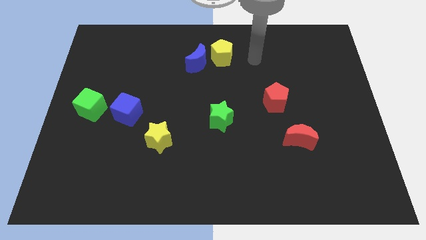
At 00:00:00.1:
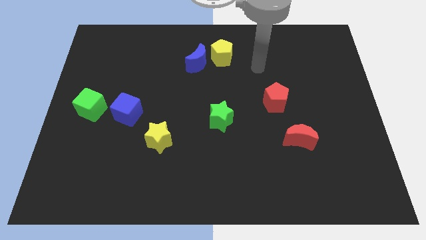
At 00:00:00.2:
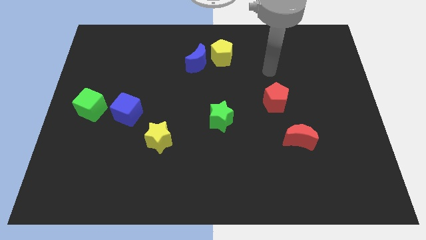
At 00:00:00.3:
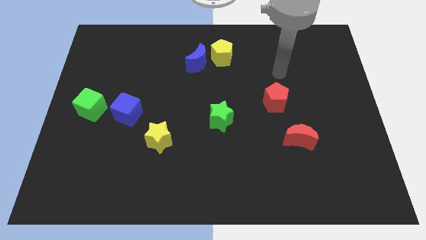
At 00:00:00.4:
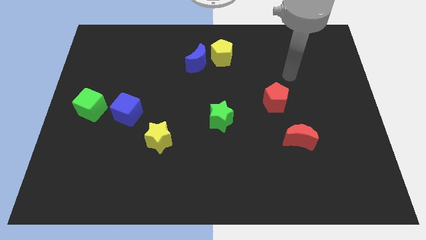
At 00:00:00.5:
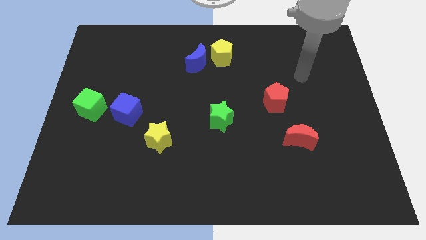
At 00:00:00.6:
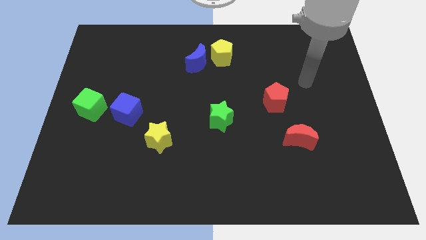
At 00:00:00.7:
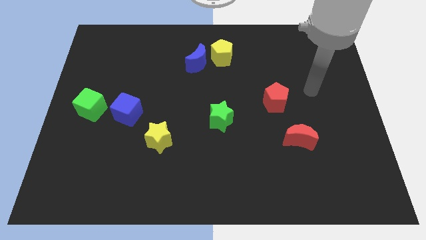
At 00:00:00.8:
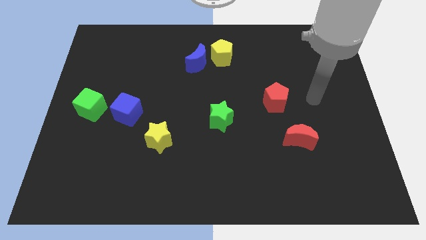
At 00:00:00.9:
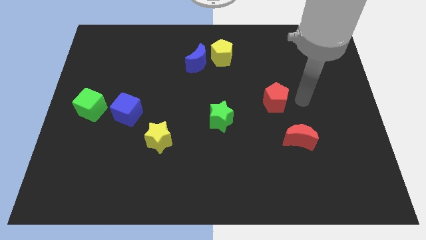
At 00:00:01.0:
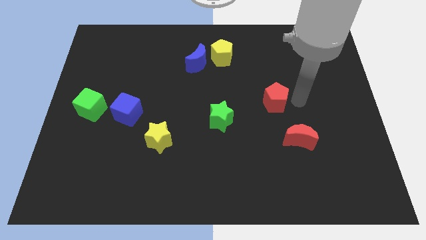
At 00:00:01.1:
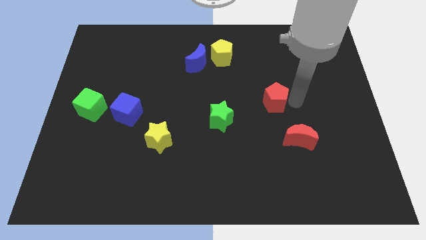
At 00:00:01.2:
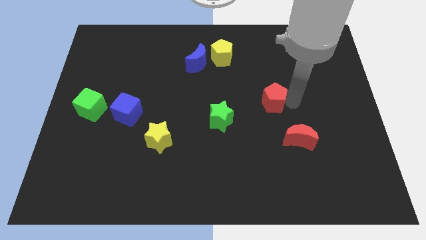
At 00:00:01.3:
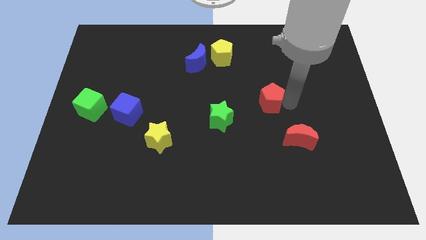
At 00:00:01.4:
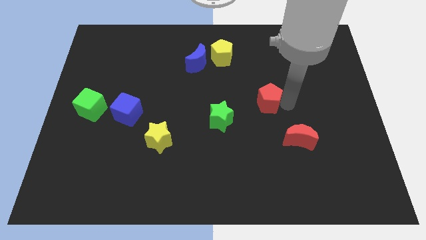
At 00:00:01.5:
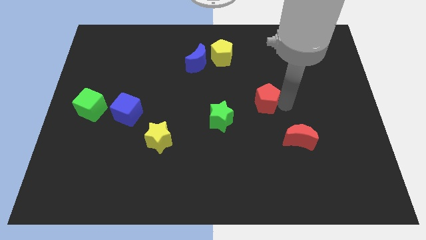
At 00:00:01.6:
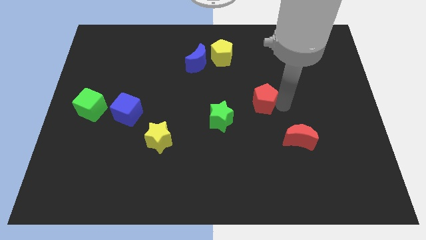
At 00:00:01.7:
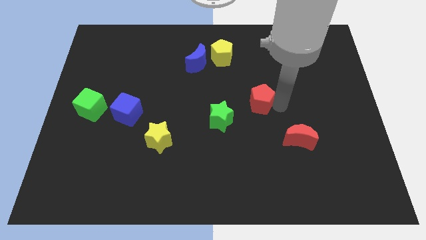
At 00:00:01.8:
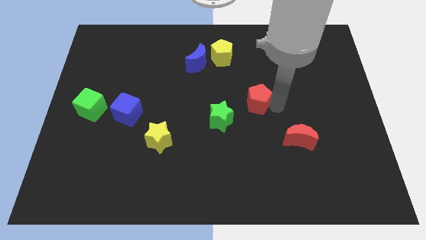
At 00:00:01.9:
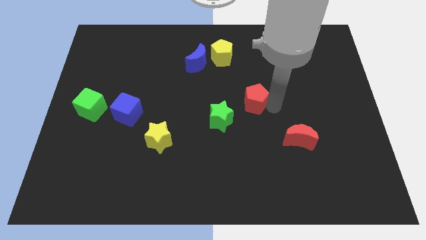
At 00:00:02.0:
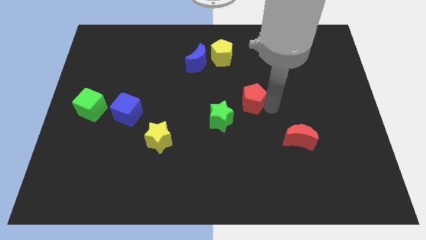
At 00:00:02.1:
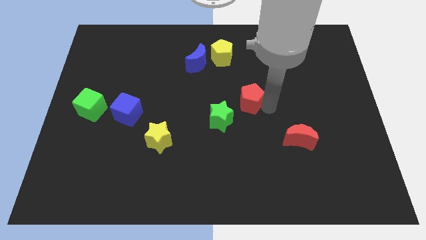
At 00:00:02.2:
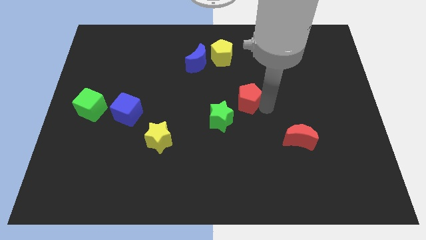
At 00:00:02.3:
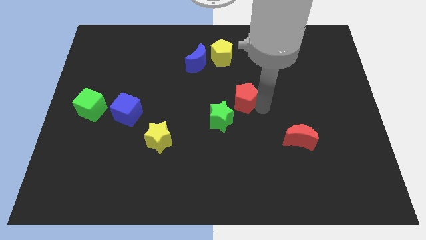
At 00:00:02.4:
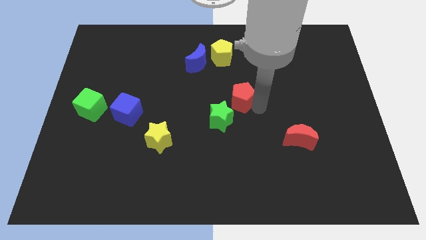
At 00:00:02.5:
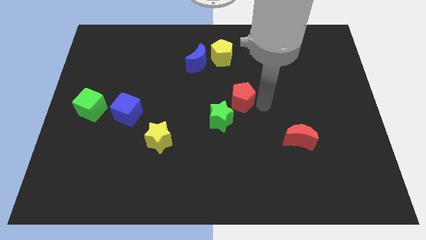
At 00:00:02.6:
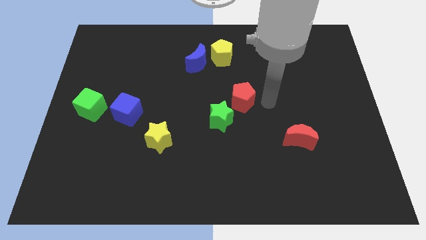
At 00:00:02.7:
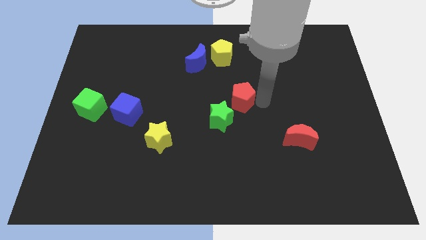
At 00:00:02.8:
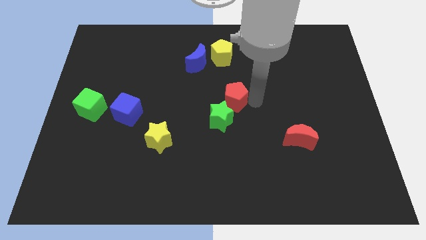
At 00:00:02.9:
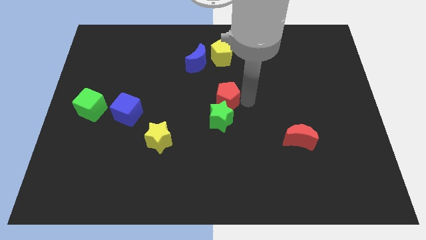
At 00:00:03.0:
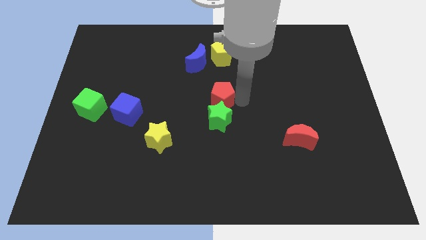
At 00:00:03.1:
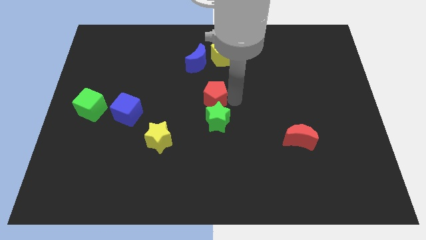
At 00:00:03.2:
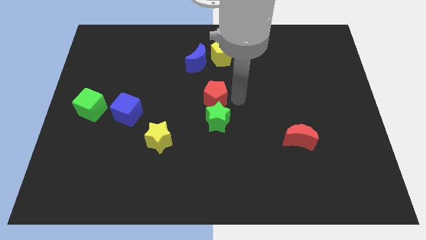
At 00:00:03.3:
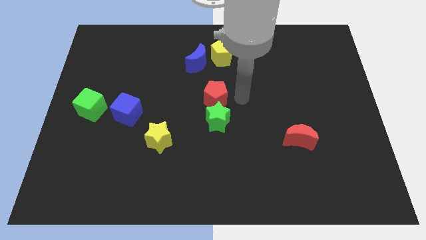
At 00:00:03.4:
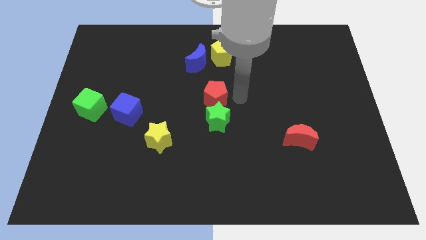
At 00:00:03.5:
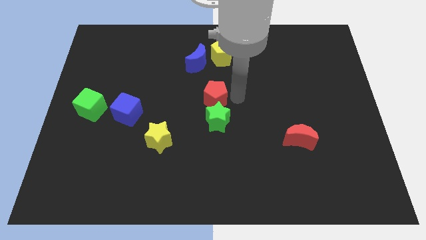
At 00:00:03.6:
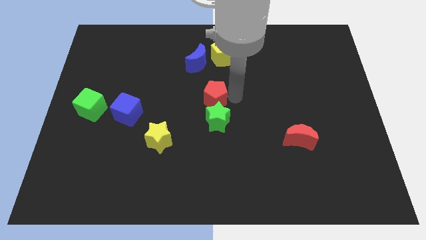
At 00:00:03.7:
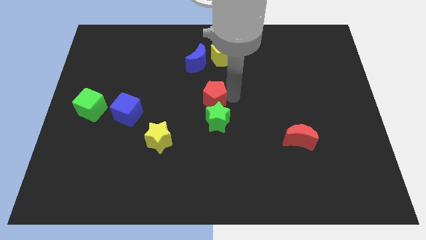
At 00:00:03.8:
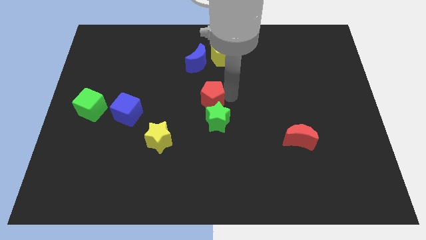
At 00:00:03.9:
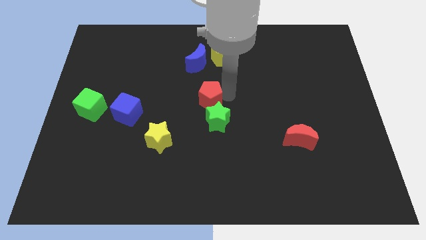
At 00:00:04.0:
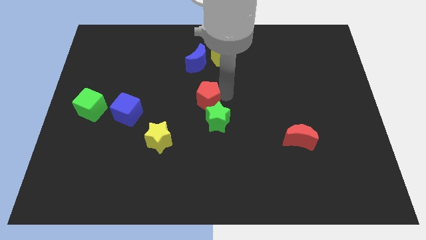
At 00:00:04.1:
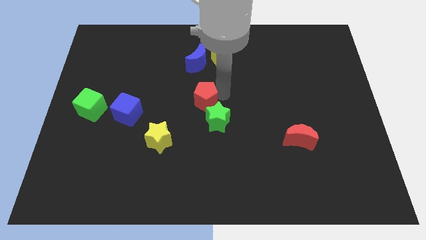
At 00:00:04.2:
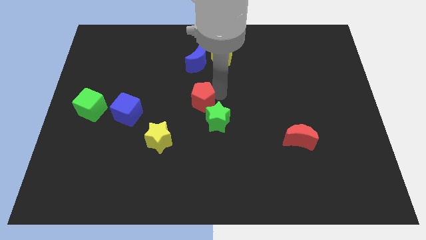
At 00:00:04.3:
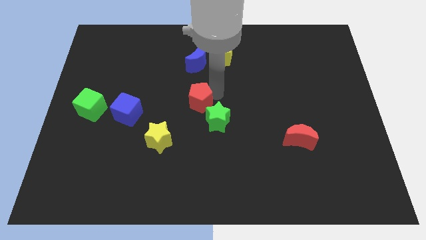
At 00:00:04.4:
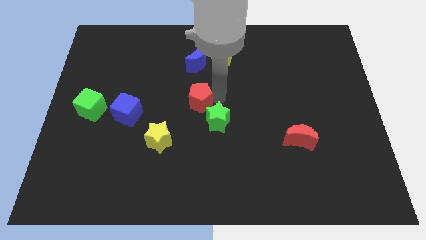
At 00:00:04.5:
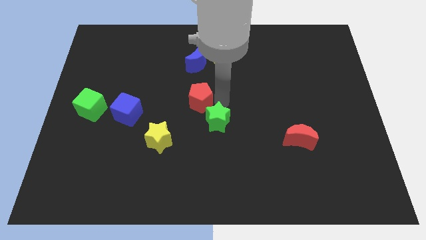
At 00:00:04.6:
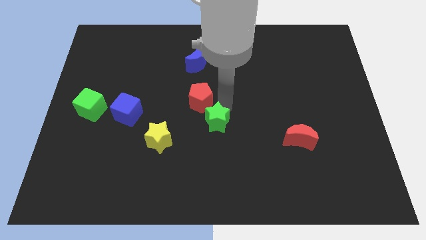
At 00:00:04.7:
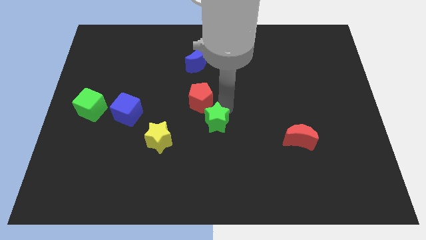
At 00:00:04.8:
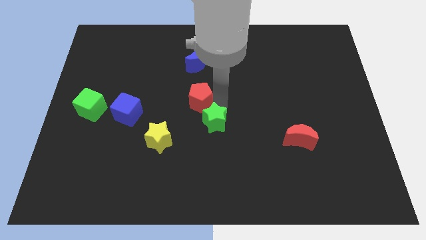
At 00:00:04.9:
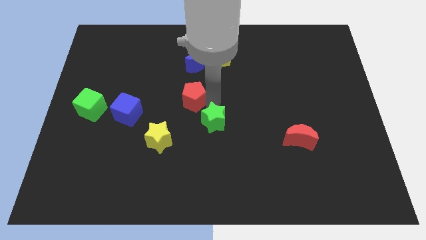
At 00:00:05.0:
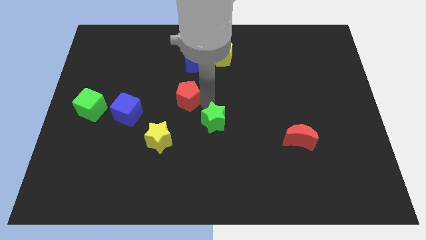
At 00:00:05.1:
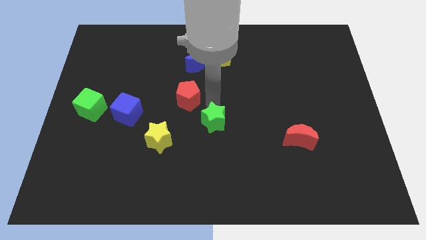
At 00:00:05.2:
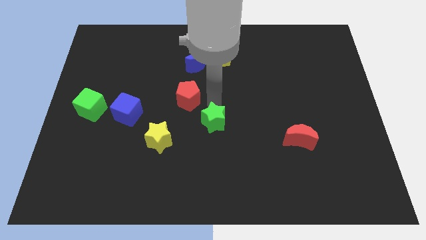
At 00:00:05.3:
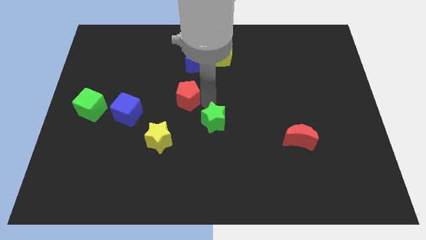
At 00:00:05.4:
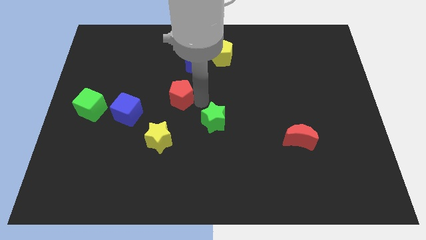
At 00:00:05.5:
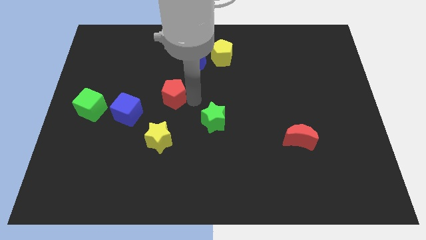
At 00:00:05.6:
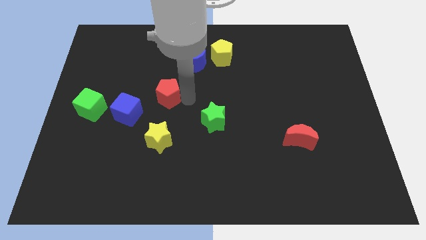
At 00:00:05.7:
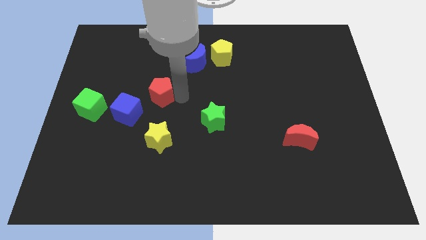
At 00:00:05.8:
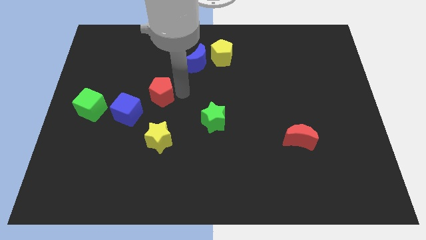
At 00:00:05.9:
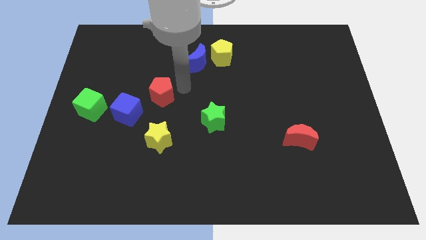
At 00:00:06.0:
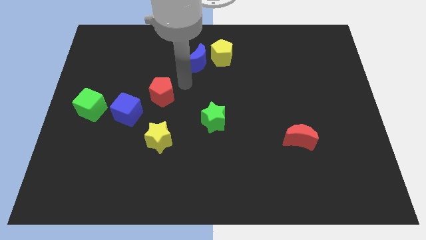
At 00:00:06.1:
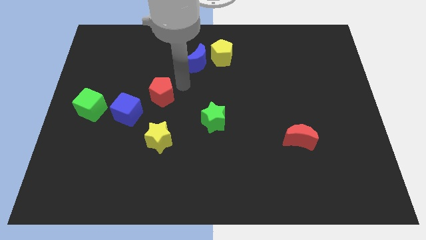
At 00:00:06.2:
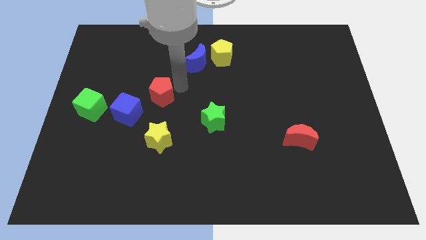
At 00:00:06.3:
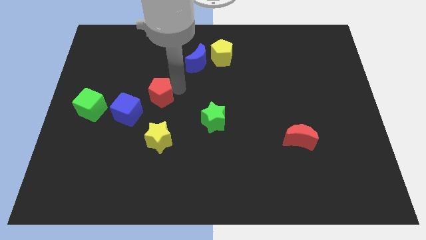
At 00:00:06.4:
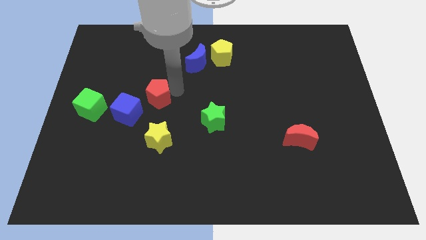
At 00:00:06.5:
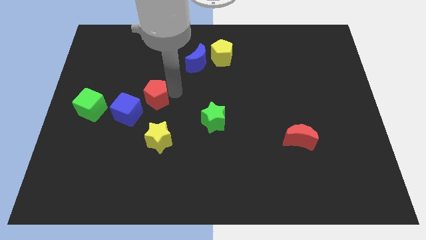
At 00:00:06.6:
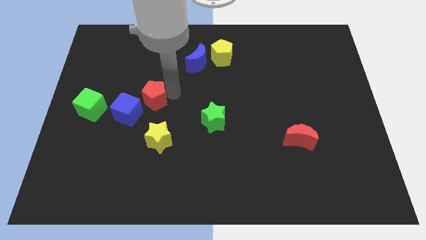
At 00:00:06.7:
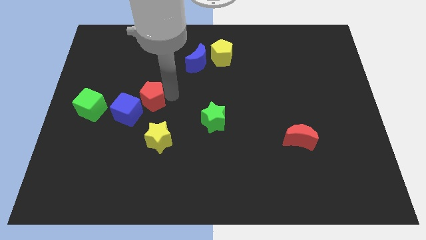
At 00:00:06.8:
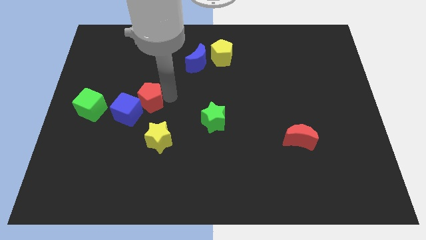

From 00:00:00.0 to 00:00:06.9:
slide the red pentagon close to the blue cube

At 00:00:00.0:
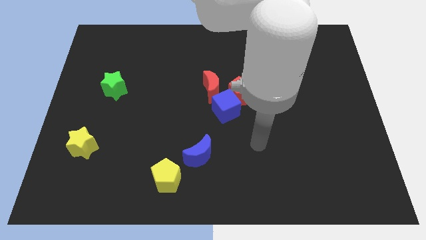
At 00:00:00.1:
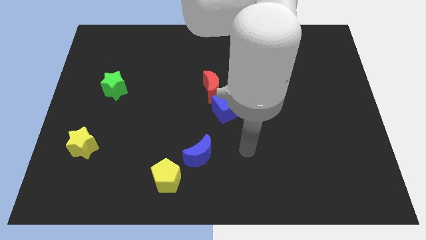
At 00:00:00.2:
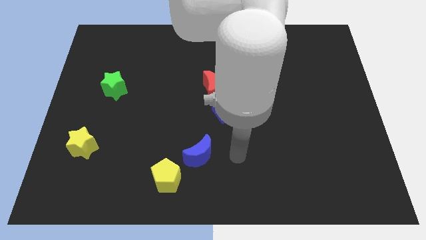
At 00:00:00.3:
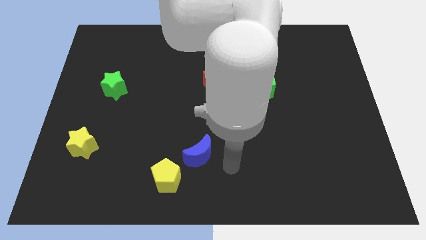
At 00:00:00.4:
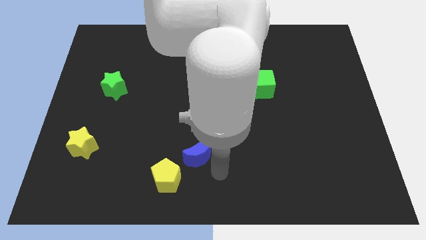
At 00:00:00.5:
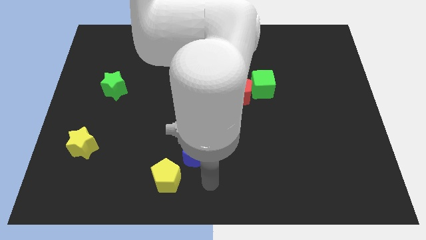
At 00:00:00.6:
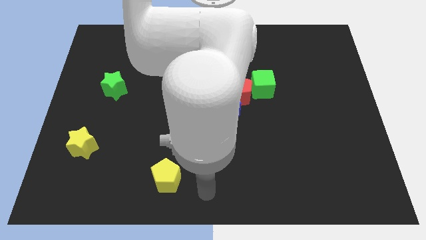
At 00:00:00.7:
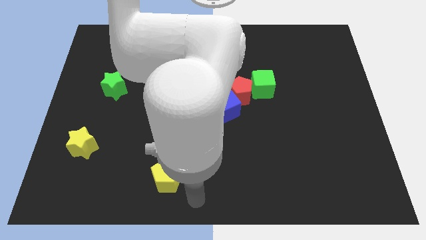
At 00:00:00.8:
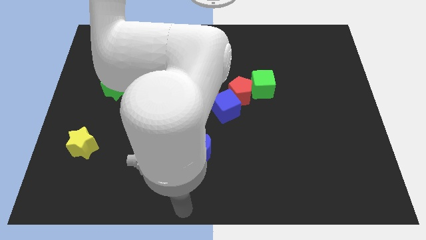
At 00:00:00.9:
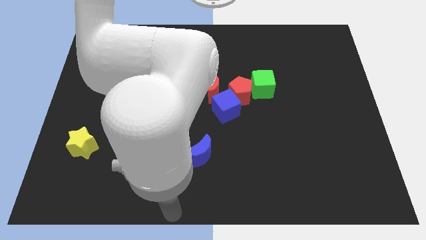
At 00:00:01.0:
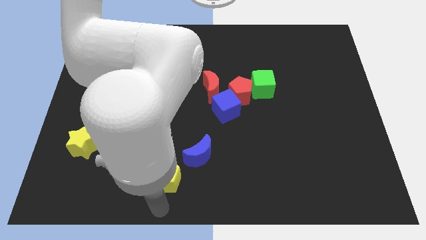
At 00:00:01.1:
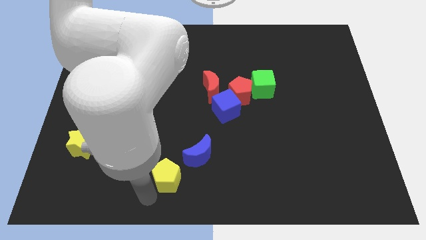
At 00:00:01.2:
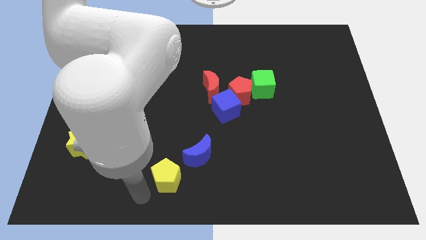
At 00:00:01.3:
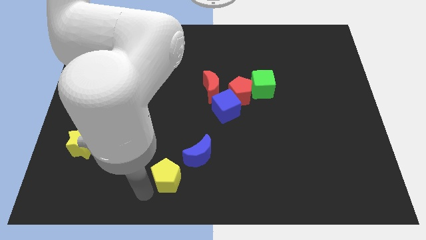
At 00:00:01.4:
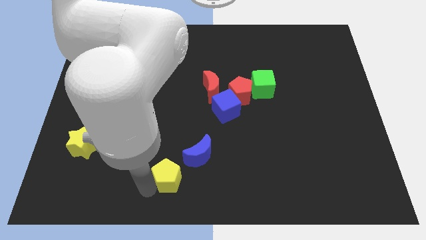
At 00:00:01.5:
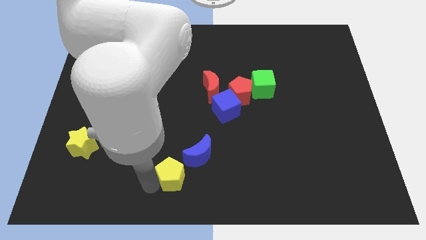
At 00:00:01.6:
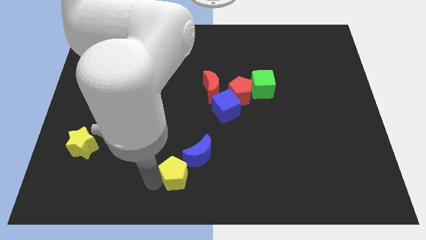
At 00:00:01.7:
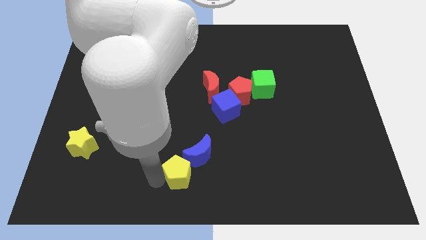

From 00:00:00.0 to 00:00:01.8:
put the yellow pentagon to the blue moon
